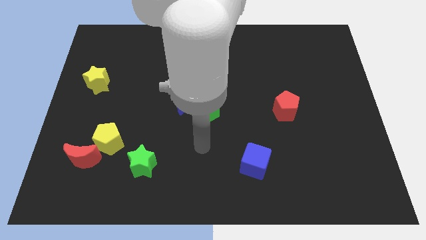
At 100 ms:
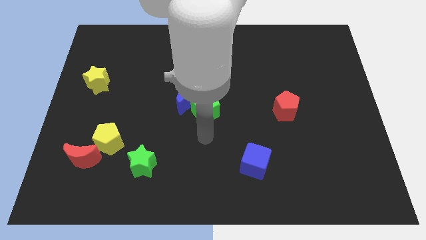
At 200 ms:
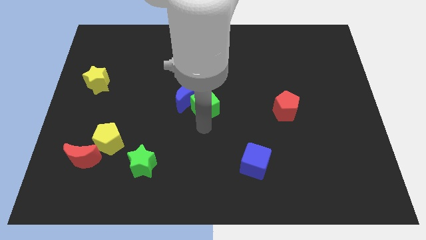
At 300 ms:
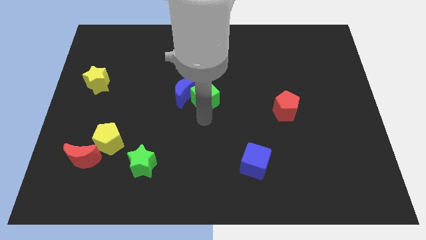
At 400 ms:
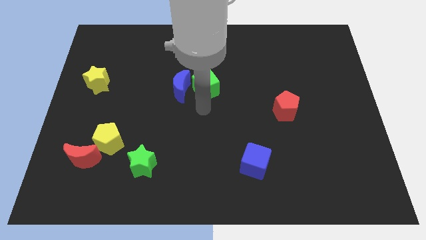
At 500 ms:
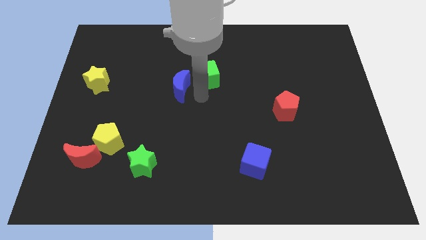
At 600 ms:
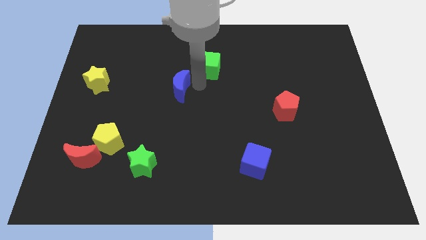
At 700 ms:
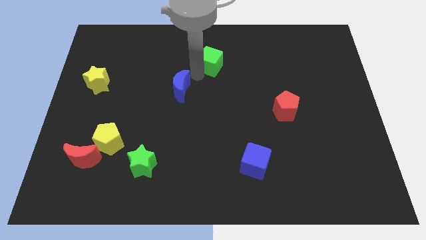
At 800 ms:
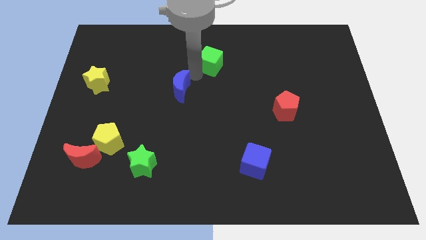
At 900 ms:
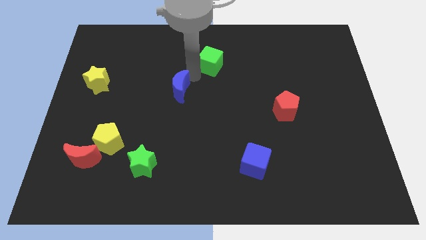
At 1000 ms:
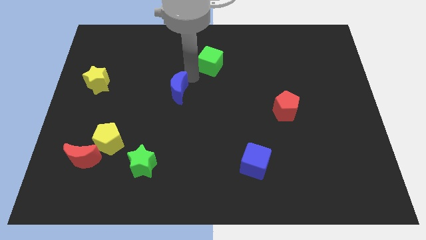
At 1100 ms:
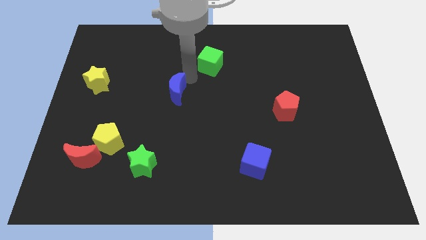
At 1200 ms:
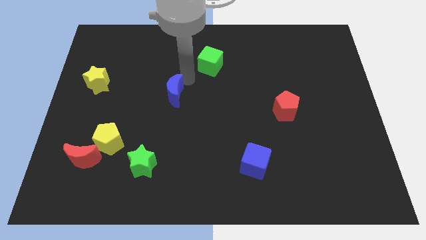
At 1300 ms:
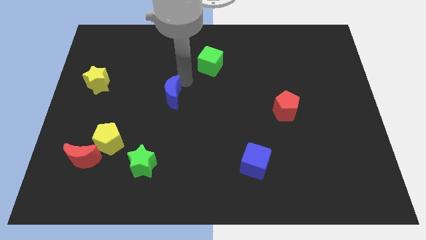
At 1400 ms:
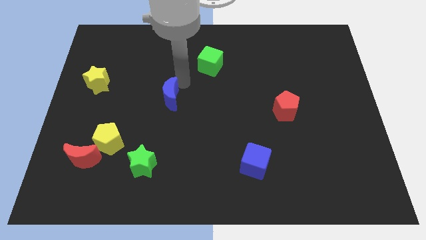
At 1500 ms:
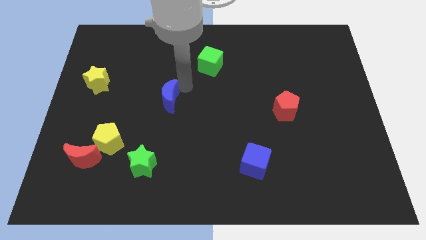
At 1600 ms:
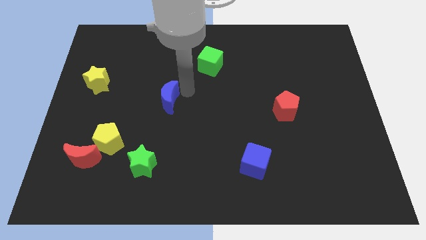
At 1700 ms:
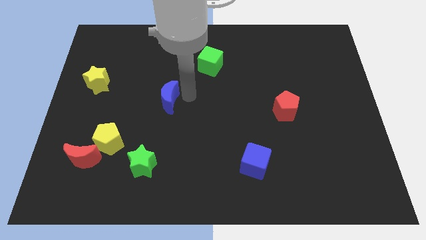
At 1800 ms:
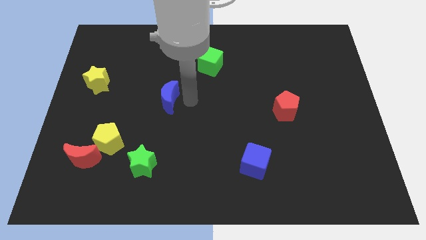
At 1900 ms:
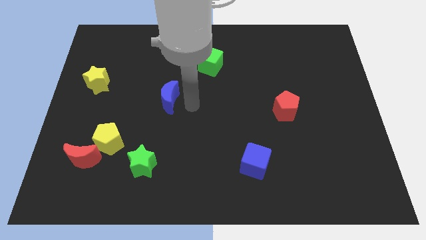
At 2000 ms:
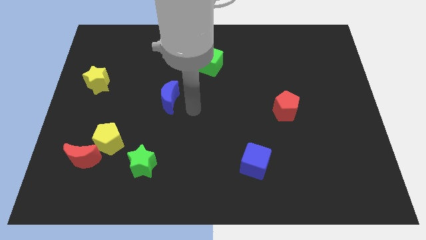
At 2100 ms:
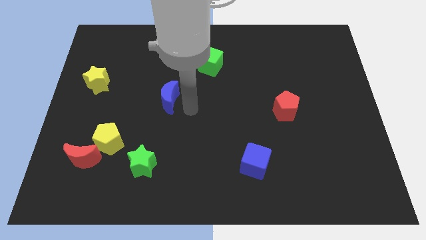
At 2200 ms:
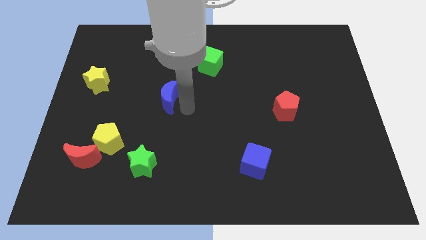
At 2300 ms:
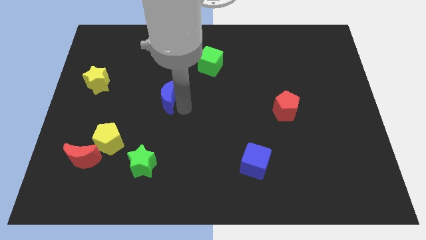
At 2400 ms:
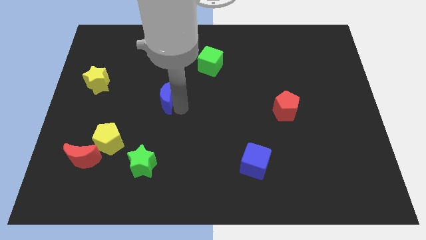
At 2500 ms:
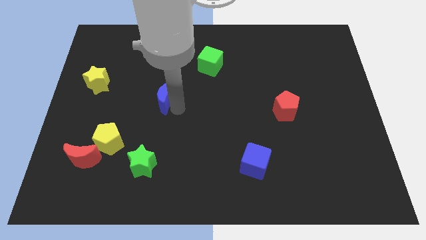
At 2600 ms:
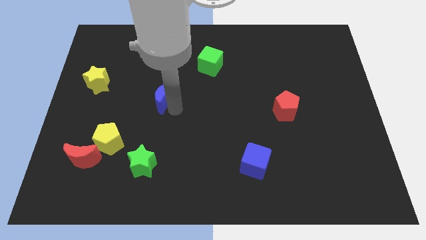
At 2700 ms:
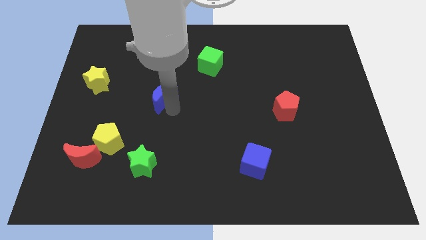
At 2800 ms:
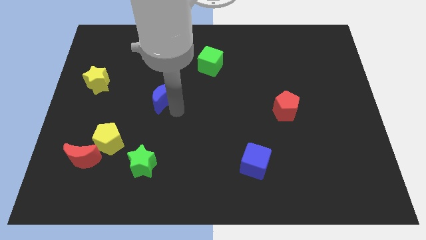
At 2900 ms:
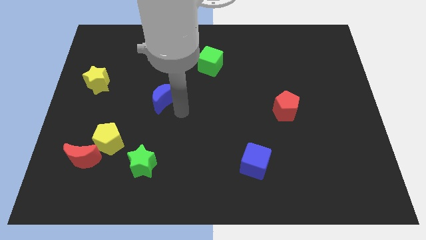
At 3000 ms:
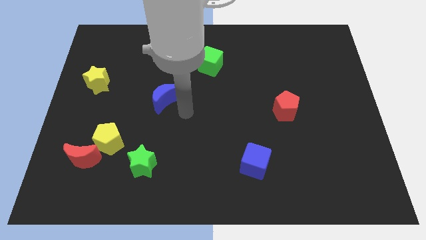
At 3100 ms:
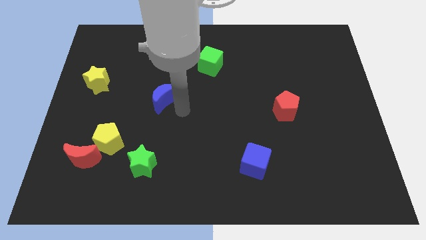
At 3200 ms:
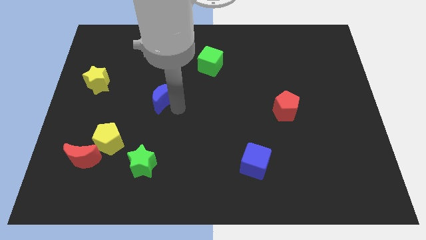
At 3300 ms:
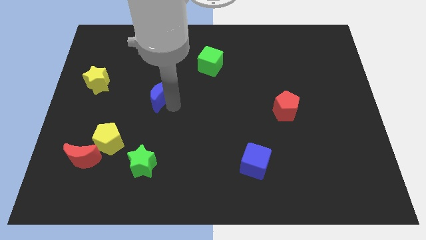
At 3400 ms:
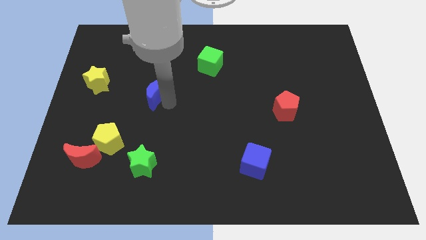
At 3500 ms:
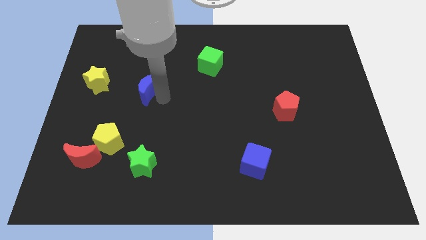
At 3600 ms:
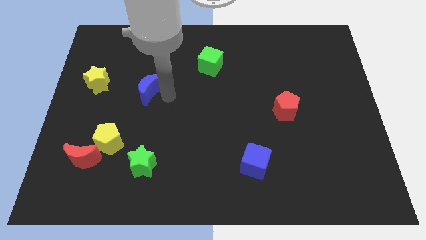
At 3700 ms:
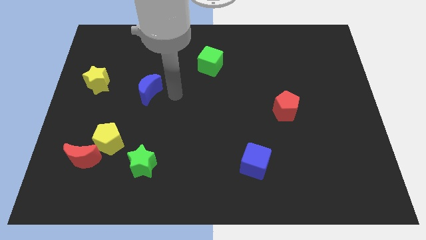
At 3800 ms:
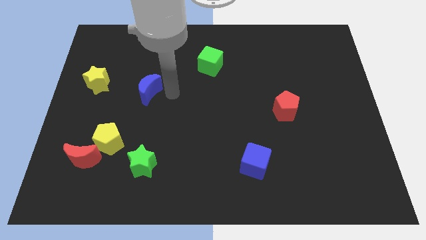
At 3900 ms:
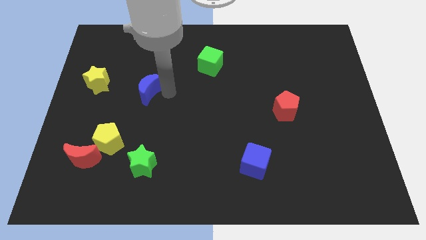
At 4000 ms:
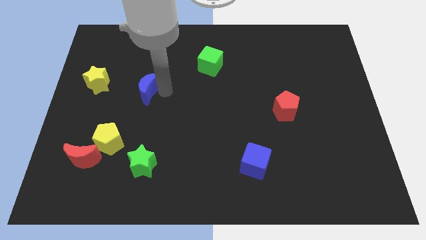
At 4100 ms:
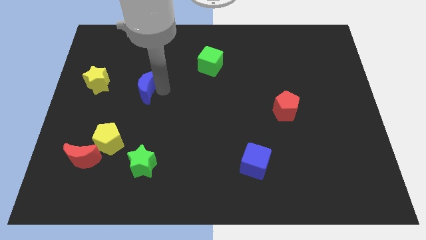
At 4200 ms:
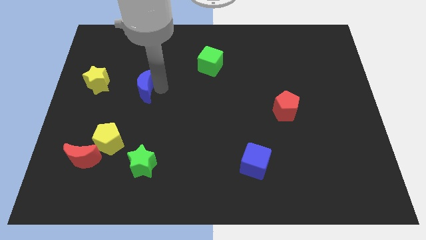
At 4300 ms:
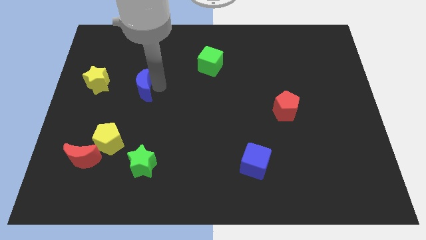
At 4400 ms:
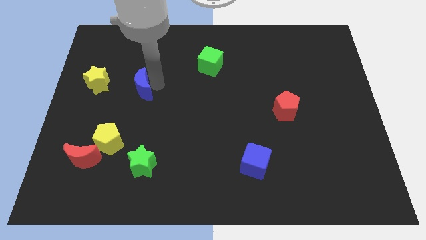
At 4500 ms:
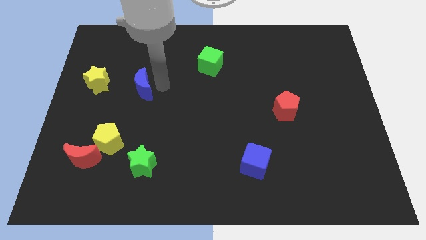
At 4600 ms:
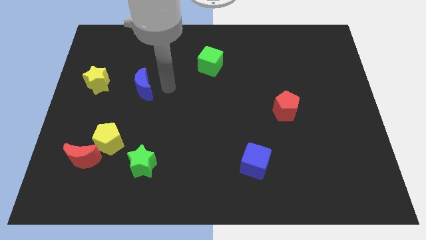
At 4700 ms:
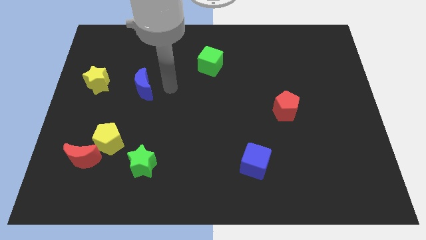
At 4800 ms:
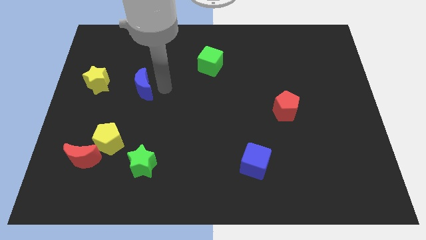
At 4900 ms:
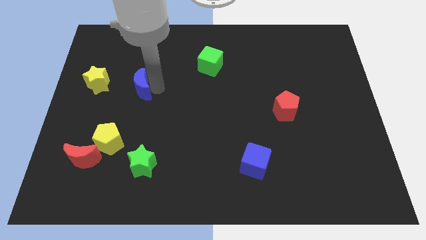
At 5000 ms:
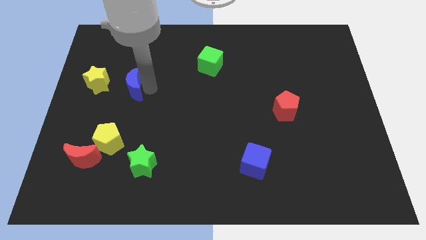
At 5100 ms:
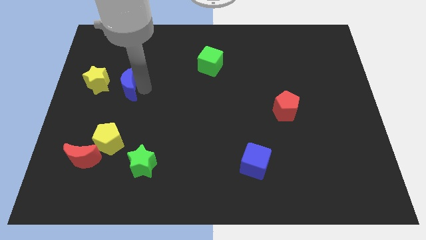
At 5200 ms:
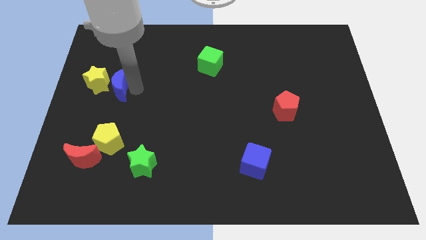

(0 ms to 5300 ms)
put the blue moon towards the yellow star

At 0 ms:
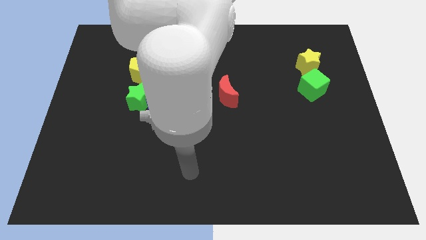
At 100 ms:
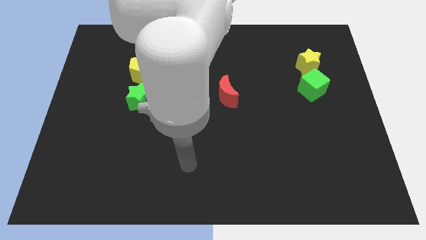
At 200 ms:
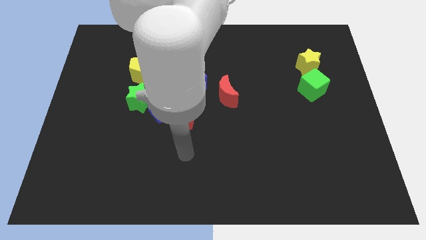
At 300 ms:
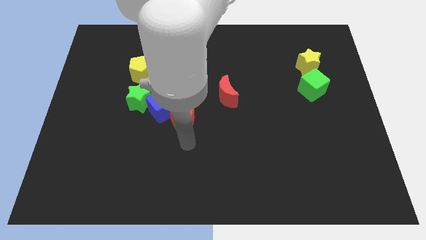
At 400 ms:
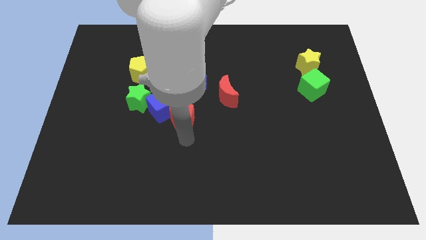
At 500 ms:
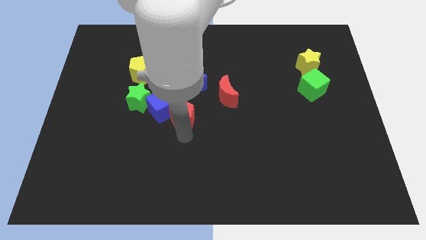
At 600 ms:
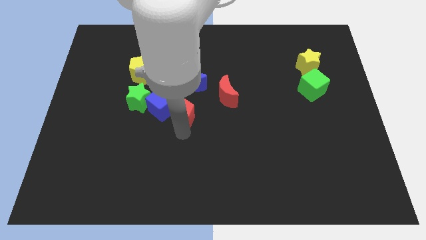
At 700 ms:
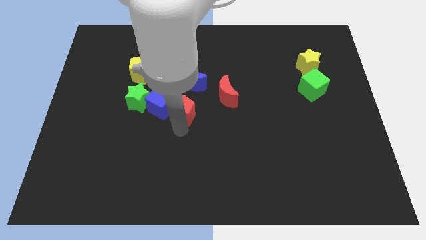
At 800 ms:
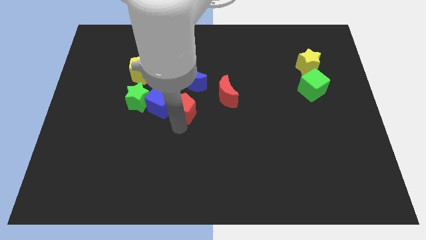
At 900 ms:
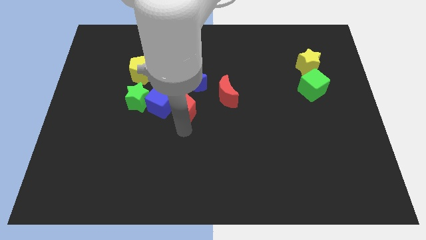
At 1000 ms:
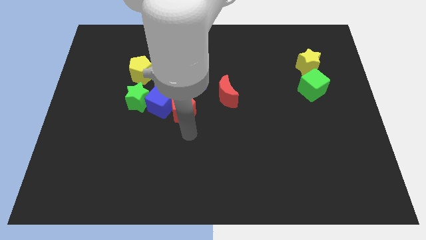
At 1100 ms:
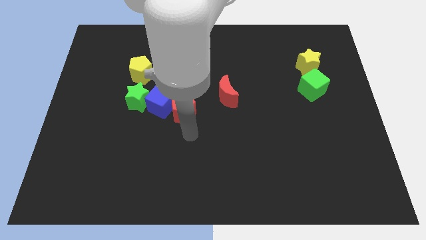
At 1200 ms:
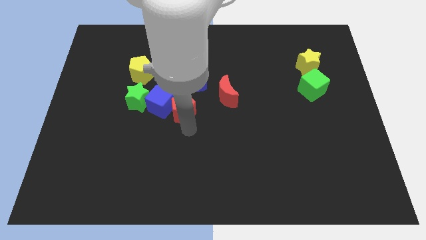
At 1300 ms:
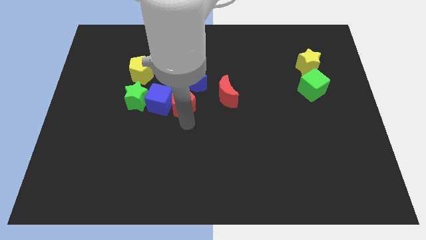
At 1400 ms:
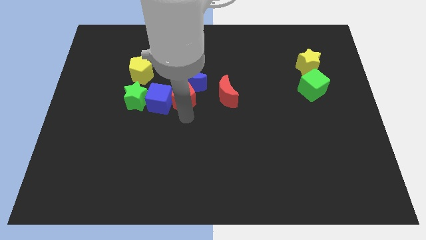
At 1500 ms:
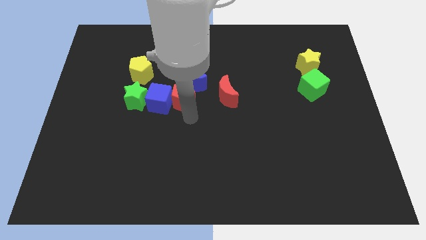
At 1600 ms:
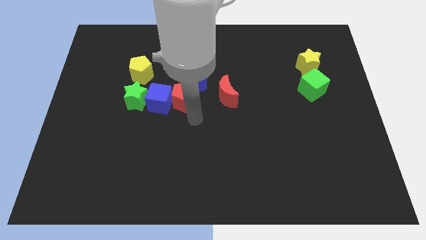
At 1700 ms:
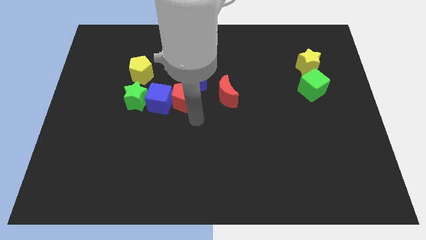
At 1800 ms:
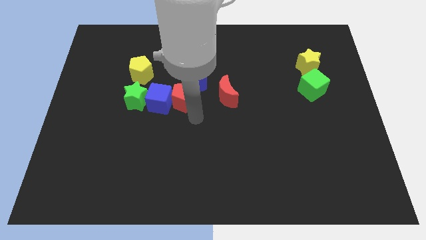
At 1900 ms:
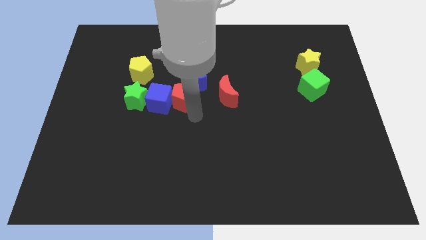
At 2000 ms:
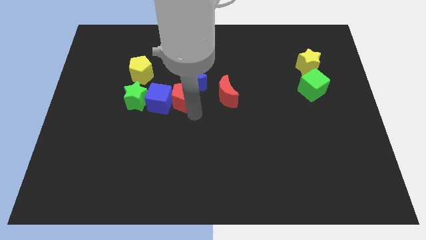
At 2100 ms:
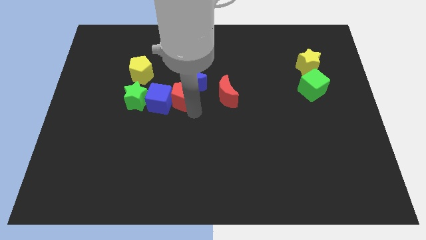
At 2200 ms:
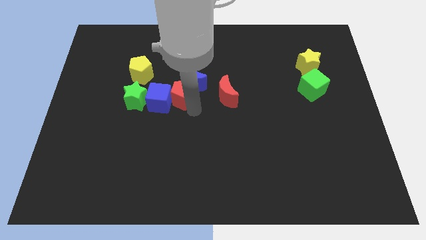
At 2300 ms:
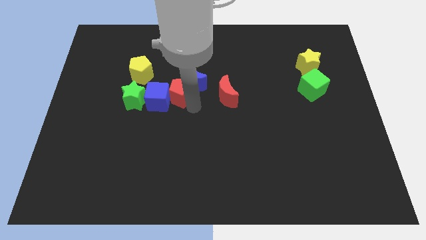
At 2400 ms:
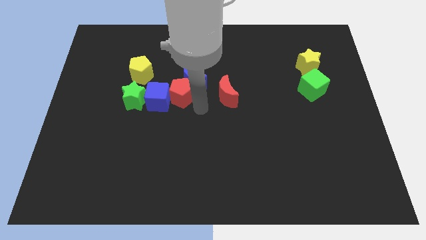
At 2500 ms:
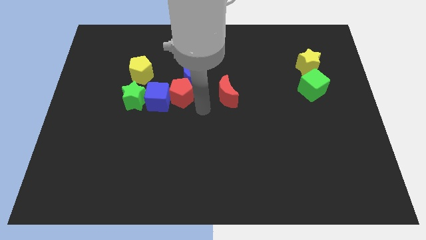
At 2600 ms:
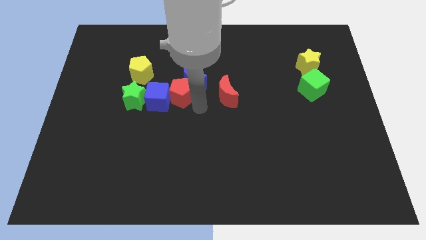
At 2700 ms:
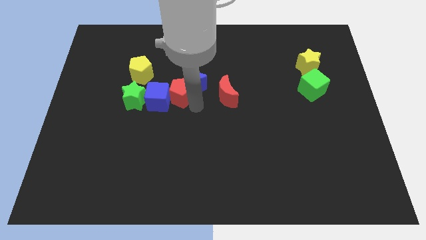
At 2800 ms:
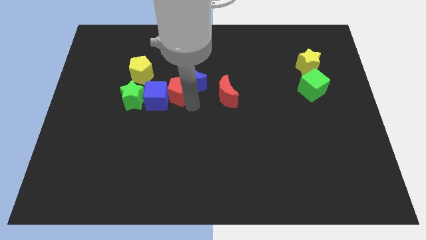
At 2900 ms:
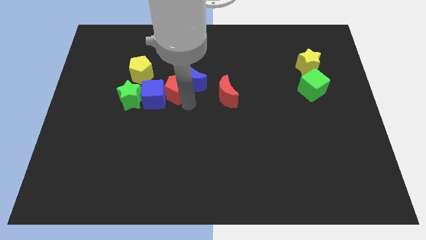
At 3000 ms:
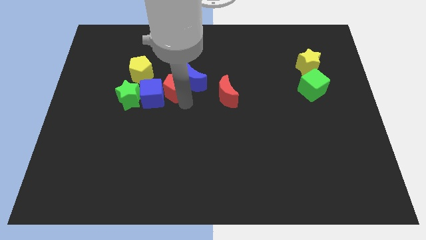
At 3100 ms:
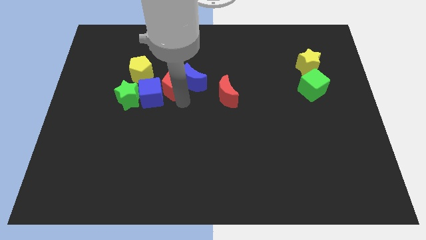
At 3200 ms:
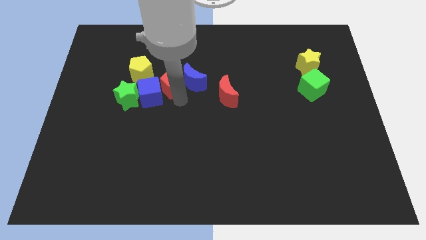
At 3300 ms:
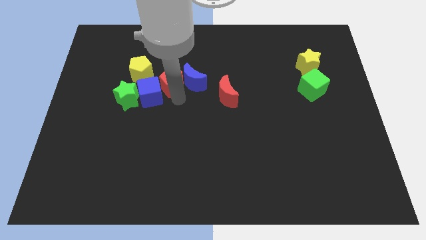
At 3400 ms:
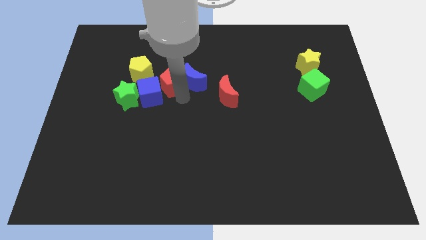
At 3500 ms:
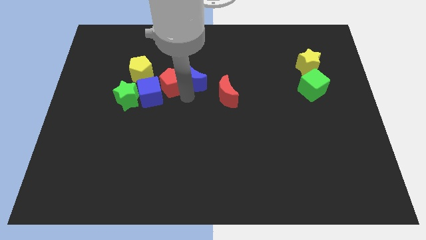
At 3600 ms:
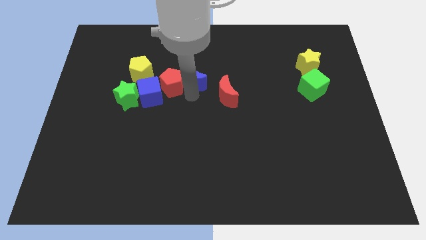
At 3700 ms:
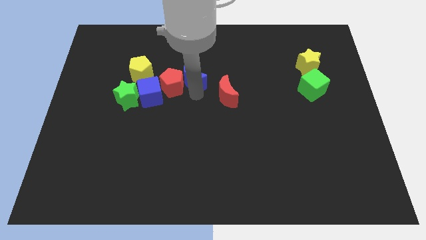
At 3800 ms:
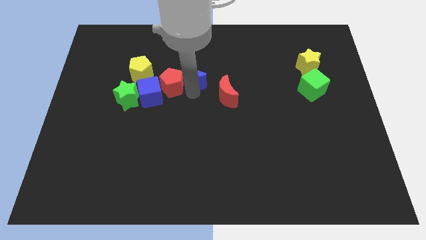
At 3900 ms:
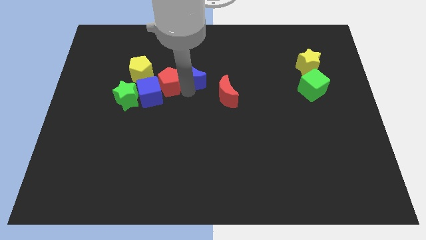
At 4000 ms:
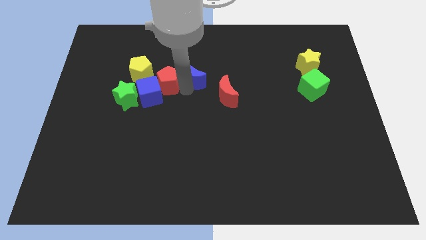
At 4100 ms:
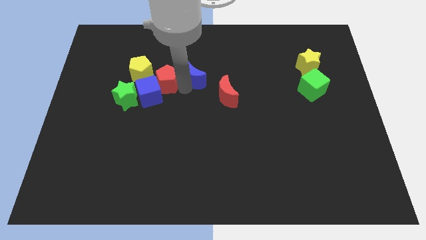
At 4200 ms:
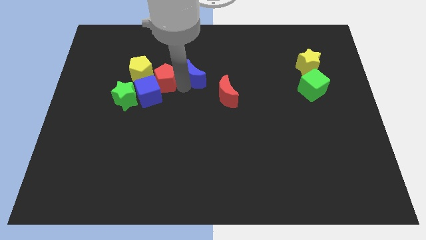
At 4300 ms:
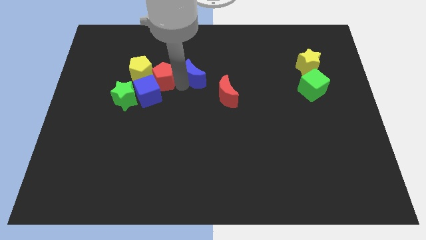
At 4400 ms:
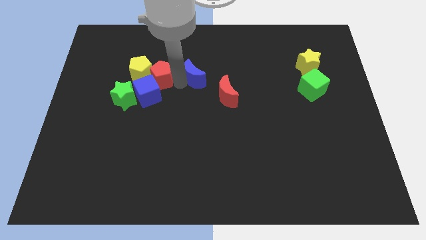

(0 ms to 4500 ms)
put the red pentagon towards the yellow pentagon
